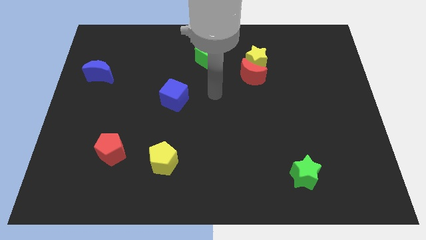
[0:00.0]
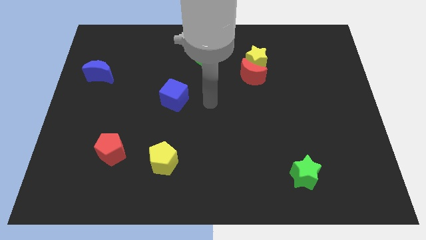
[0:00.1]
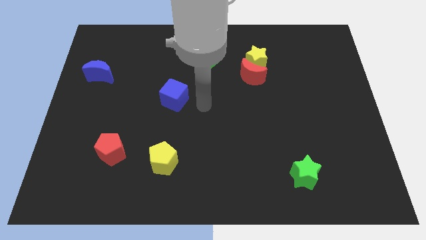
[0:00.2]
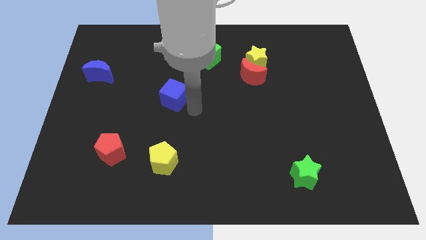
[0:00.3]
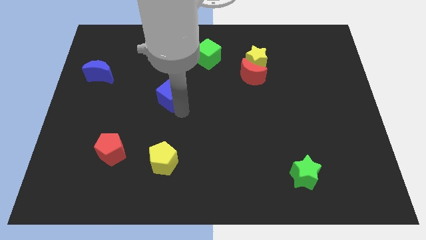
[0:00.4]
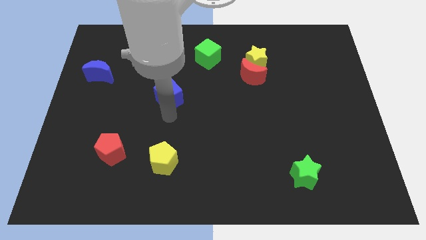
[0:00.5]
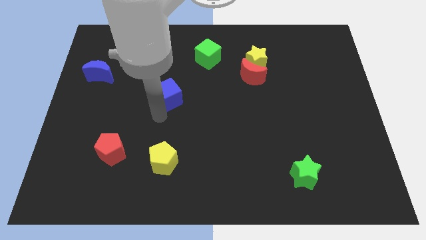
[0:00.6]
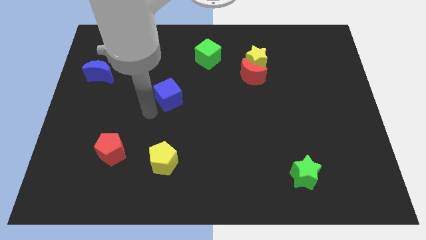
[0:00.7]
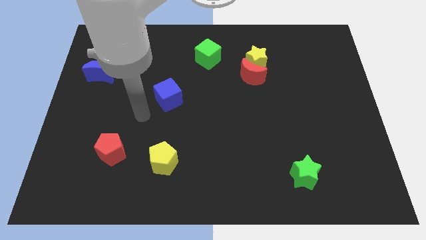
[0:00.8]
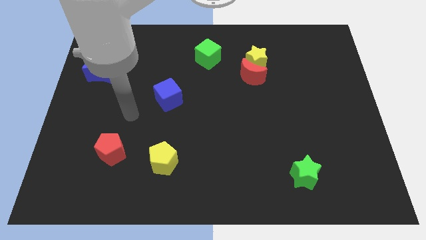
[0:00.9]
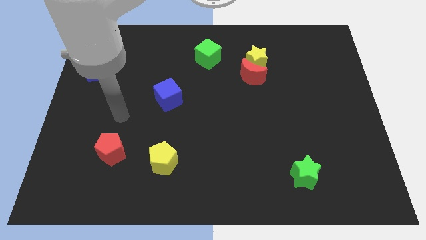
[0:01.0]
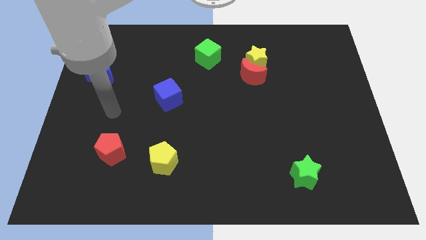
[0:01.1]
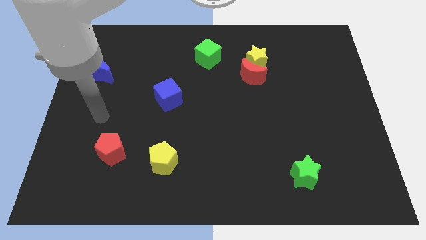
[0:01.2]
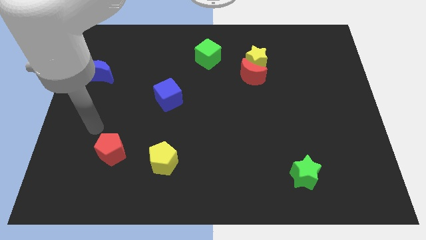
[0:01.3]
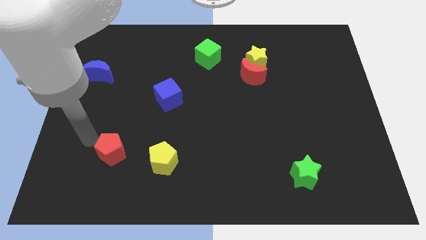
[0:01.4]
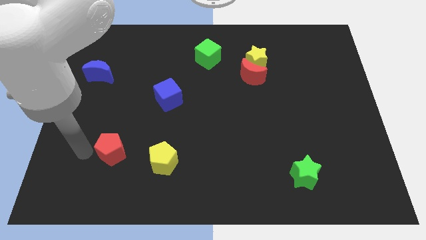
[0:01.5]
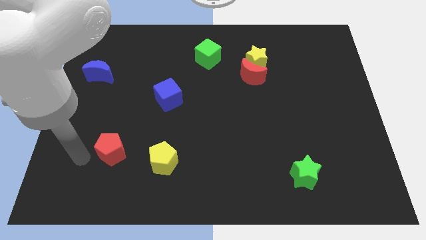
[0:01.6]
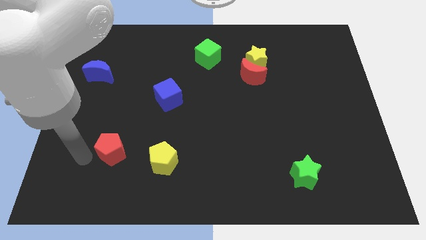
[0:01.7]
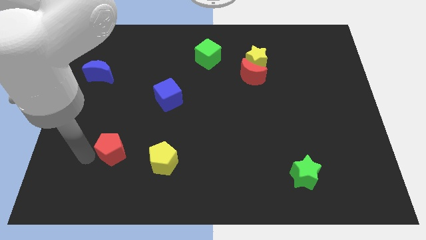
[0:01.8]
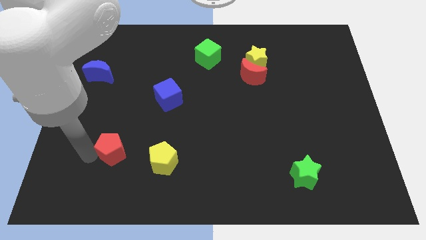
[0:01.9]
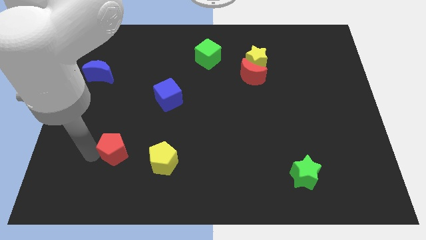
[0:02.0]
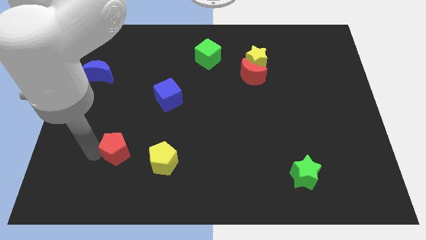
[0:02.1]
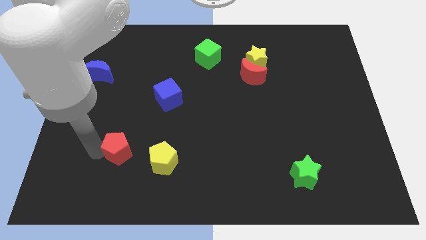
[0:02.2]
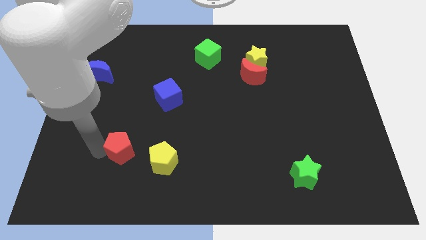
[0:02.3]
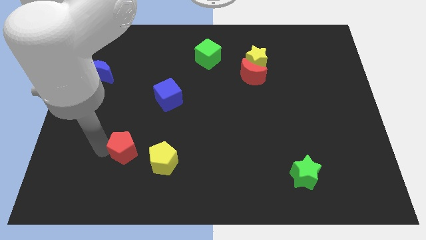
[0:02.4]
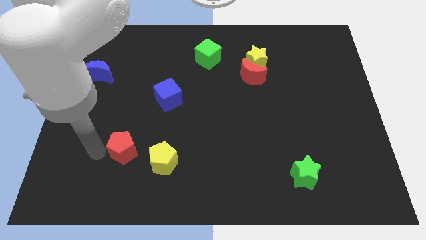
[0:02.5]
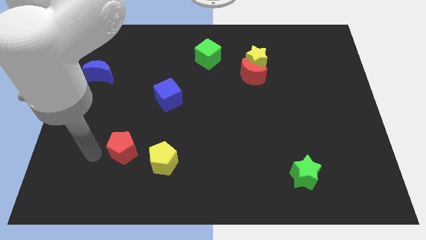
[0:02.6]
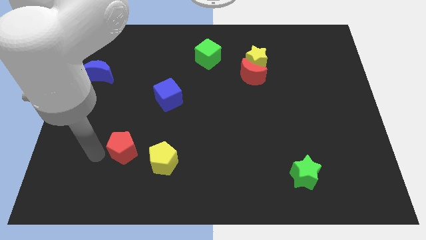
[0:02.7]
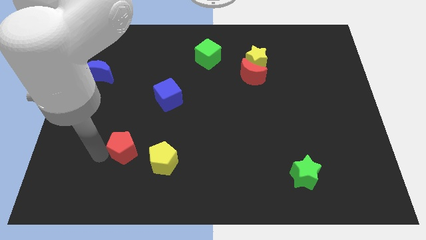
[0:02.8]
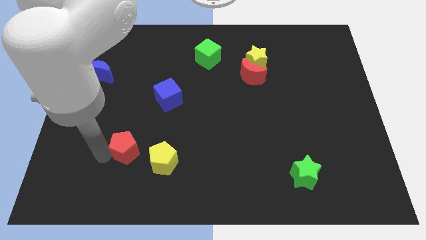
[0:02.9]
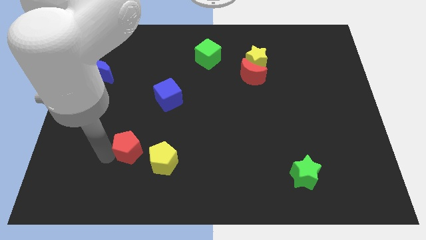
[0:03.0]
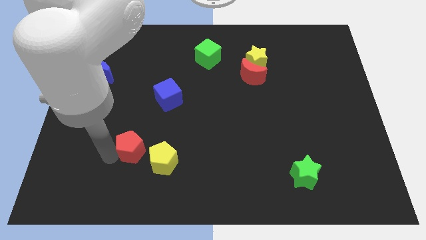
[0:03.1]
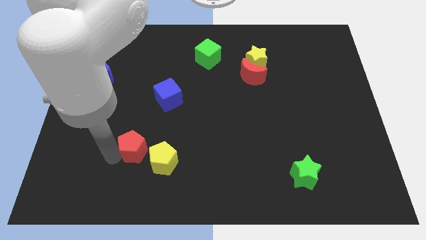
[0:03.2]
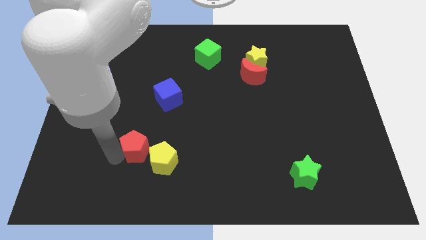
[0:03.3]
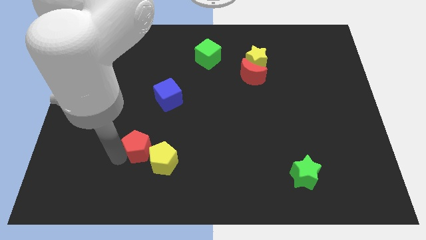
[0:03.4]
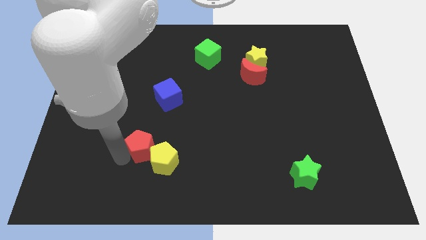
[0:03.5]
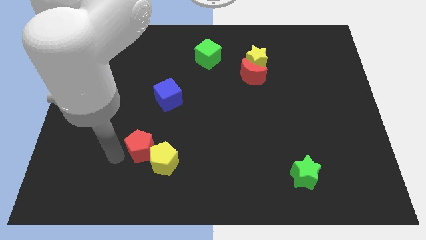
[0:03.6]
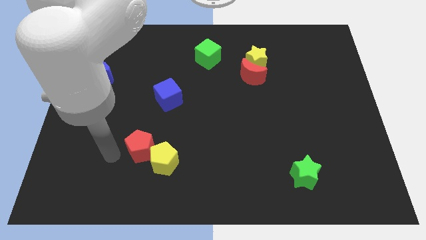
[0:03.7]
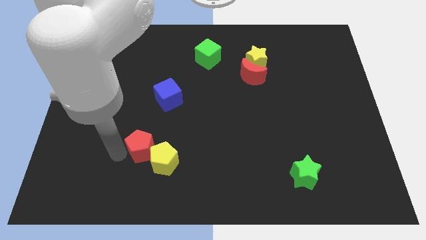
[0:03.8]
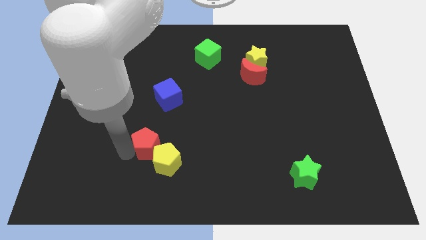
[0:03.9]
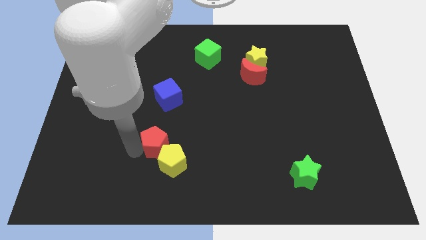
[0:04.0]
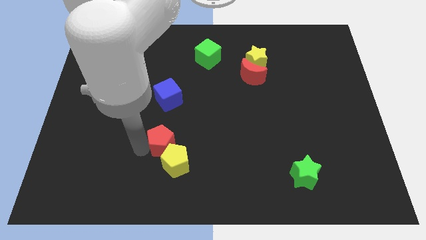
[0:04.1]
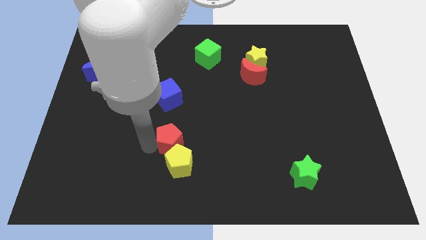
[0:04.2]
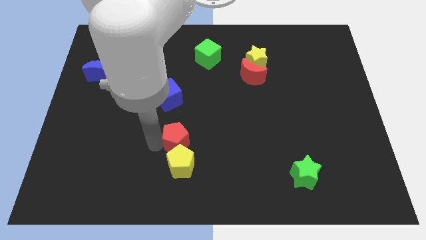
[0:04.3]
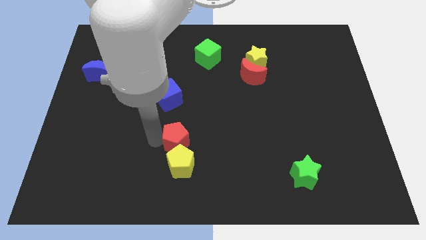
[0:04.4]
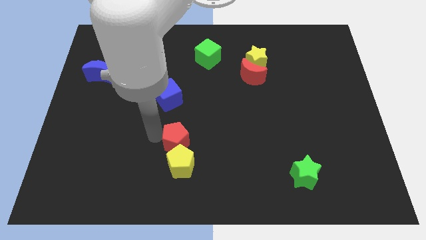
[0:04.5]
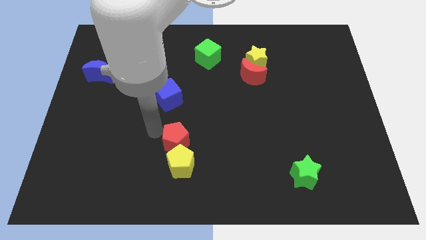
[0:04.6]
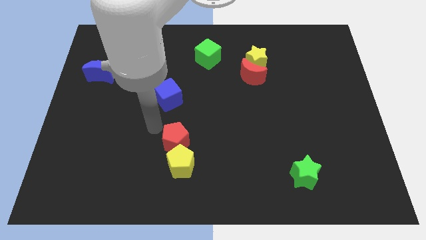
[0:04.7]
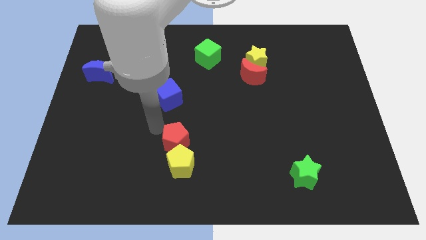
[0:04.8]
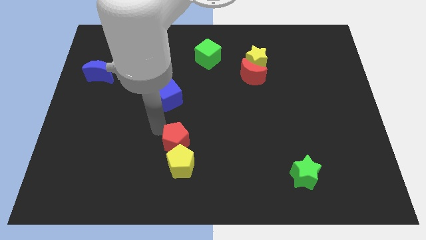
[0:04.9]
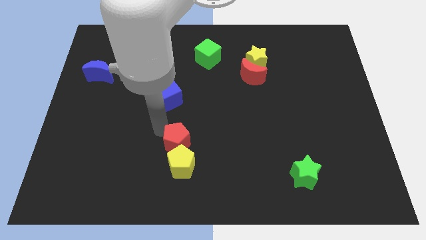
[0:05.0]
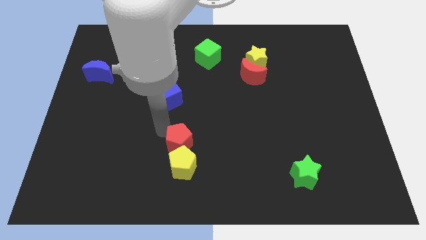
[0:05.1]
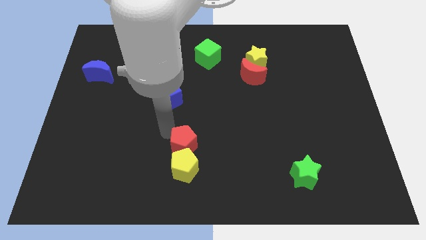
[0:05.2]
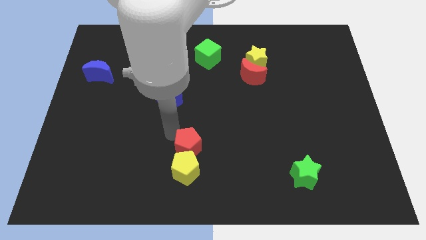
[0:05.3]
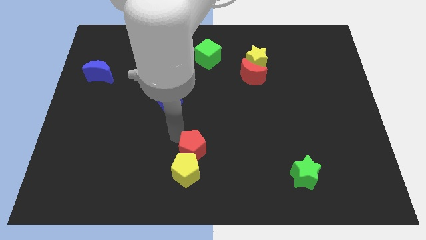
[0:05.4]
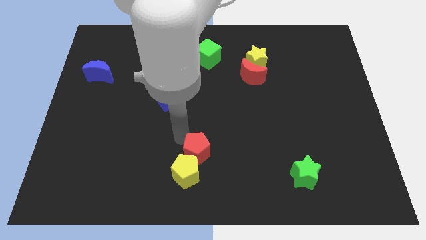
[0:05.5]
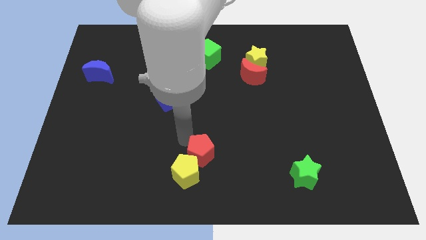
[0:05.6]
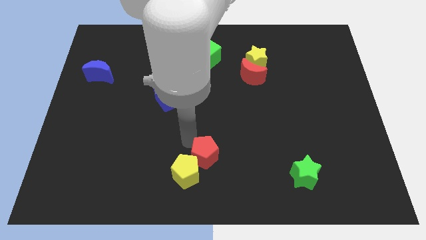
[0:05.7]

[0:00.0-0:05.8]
put the red pentagon right of the yellow pentagon

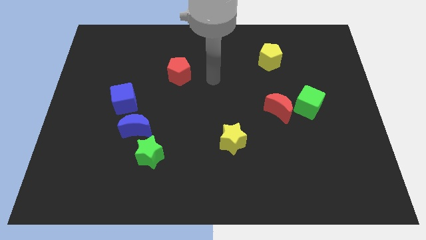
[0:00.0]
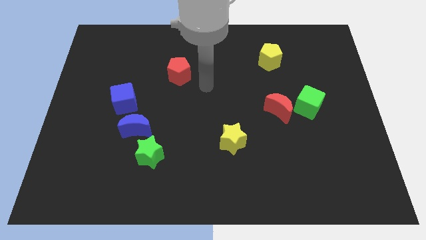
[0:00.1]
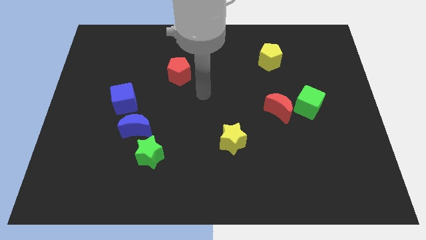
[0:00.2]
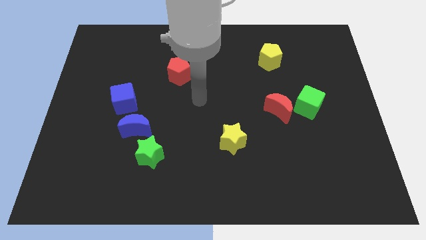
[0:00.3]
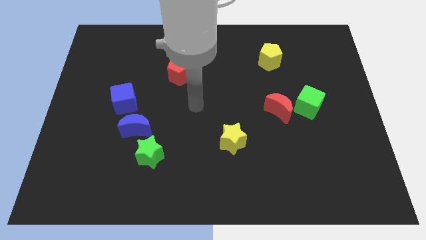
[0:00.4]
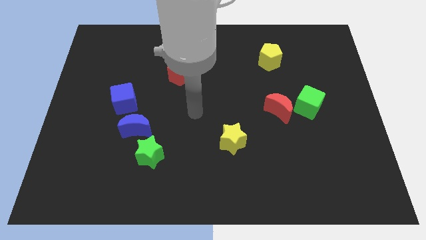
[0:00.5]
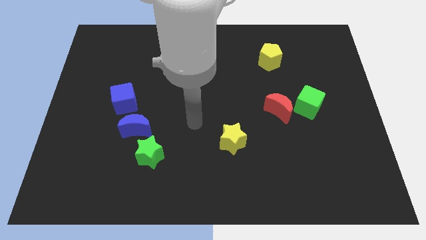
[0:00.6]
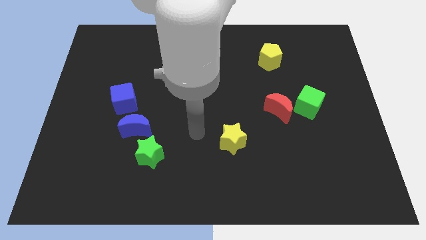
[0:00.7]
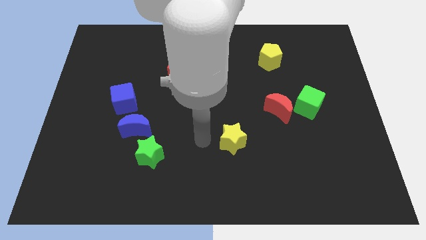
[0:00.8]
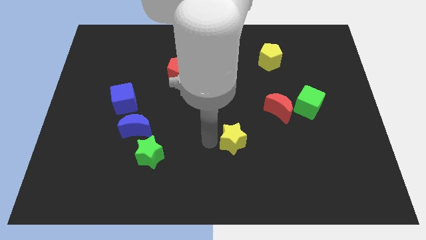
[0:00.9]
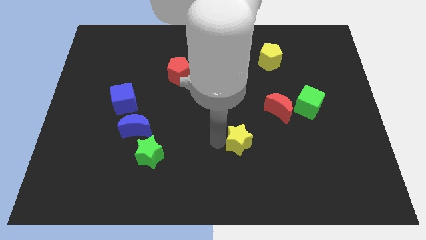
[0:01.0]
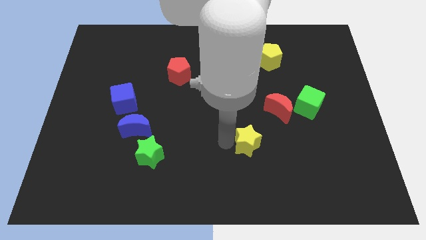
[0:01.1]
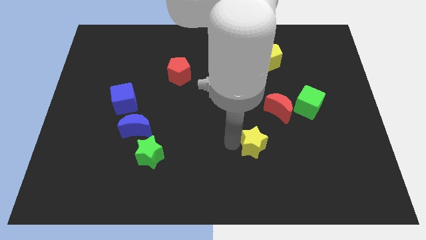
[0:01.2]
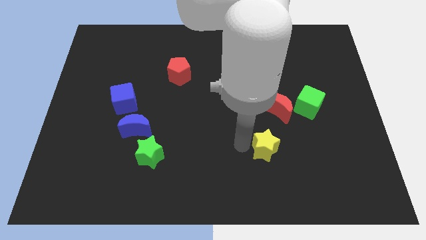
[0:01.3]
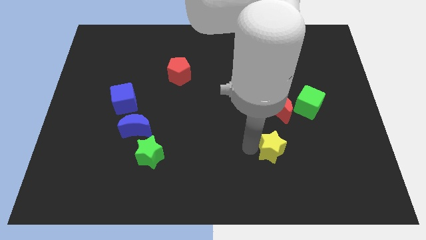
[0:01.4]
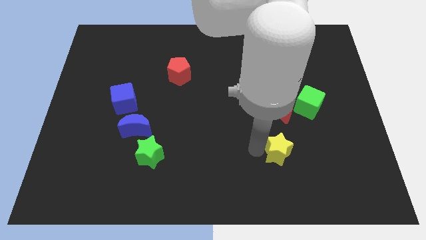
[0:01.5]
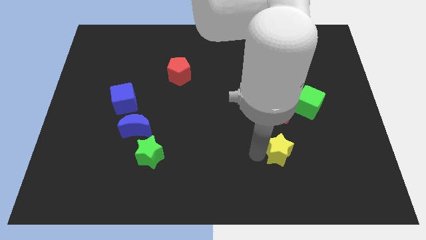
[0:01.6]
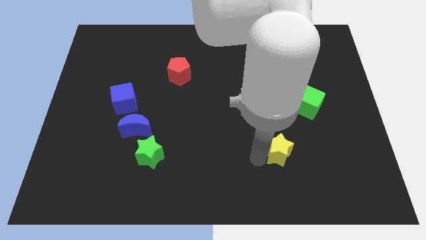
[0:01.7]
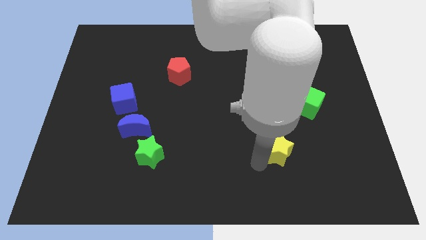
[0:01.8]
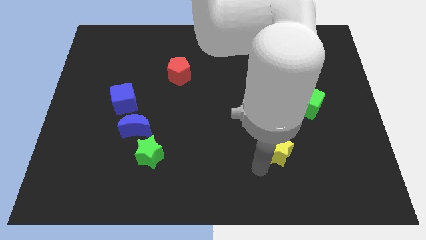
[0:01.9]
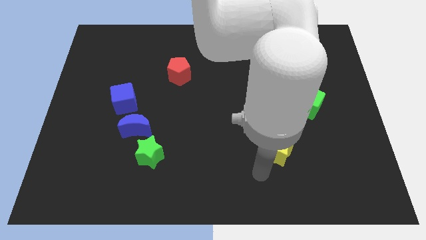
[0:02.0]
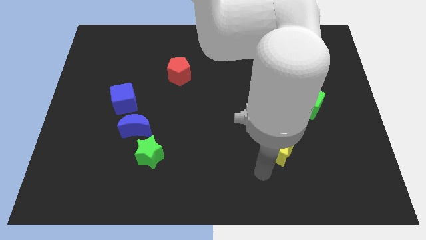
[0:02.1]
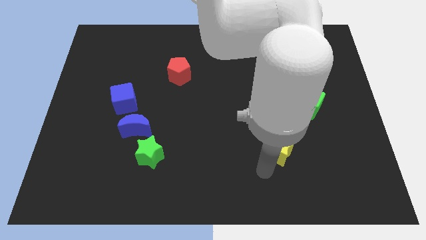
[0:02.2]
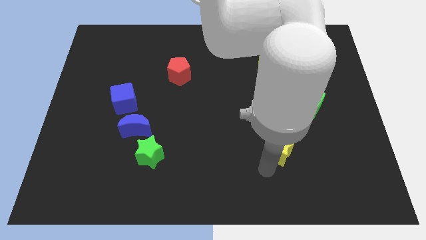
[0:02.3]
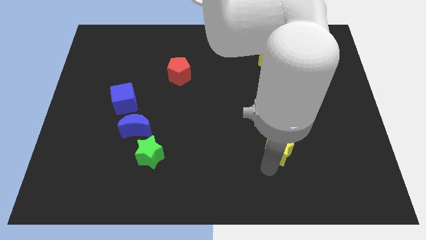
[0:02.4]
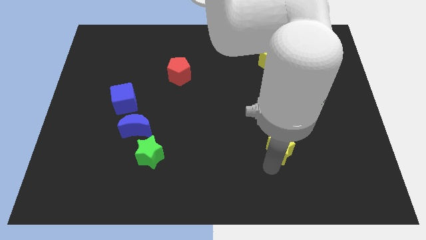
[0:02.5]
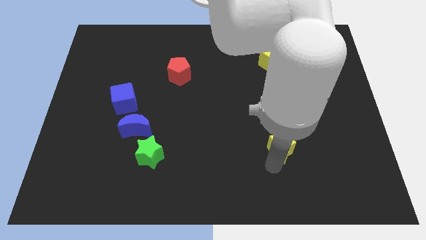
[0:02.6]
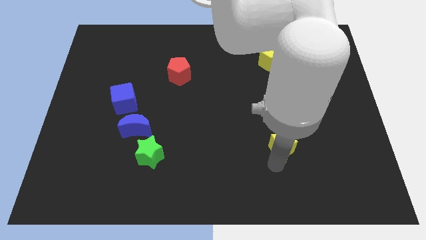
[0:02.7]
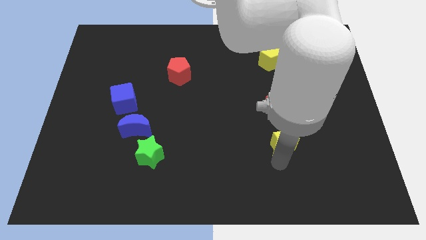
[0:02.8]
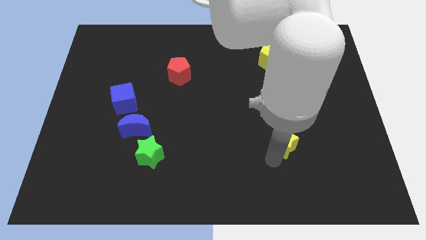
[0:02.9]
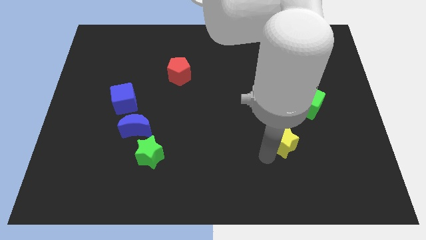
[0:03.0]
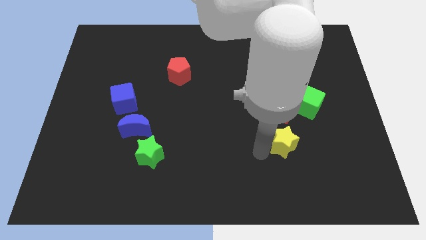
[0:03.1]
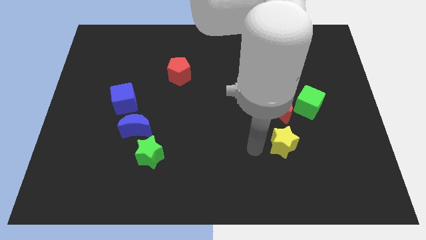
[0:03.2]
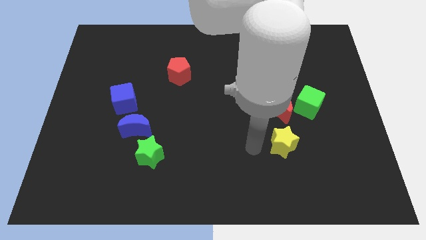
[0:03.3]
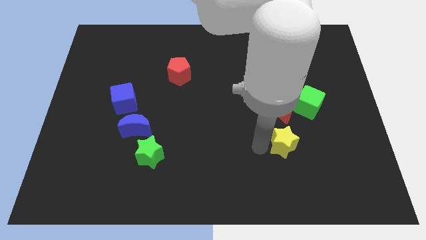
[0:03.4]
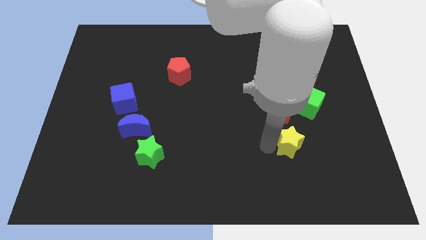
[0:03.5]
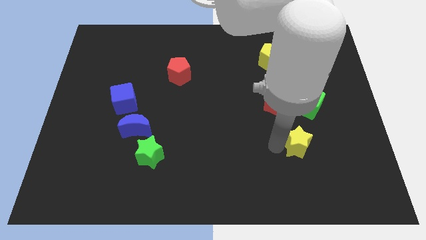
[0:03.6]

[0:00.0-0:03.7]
slide the yellow star to the bottom side of the green cube
